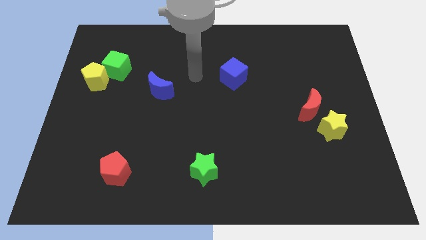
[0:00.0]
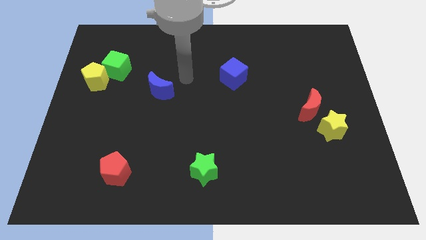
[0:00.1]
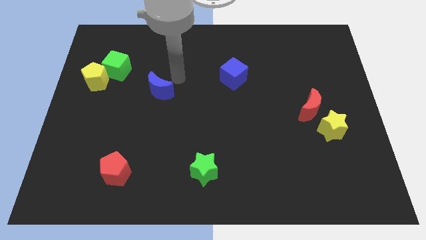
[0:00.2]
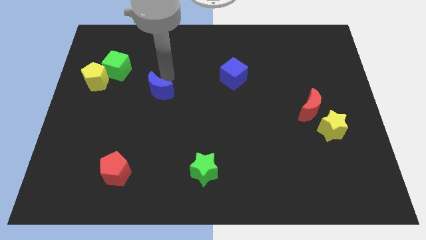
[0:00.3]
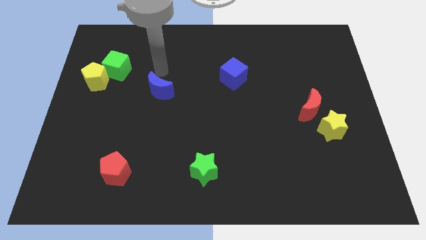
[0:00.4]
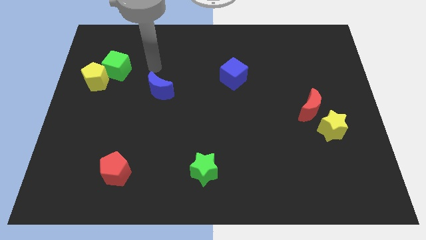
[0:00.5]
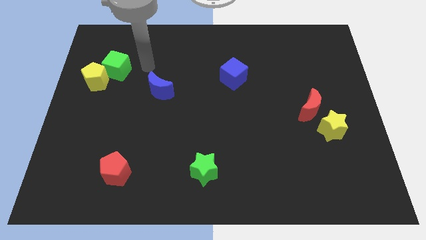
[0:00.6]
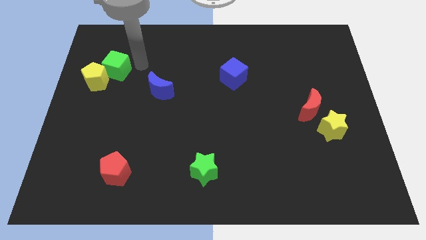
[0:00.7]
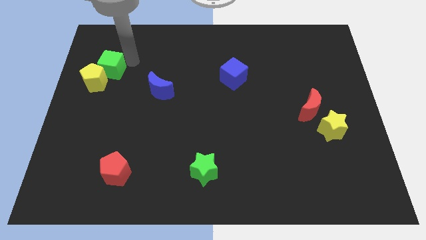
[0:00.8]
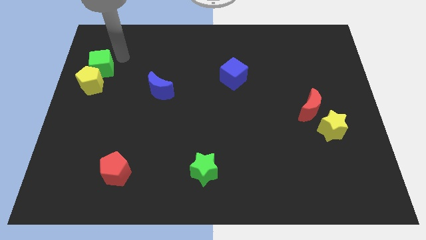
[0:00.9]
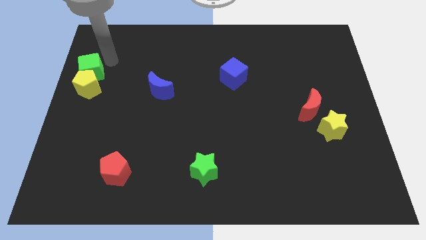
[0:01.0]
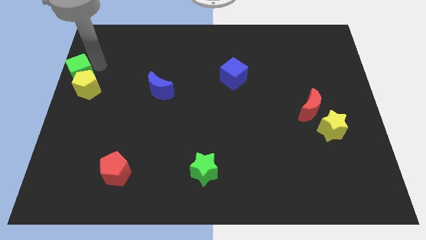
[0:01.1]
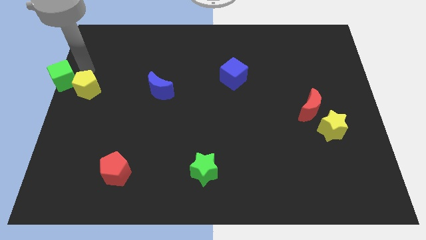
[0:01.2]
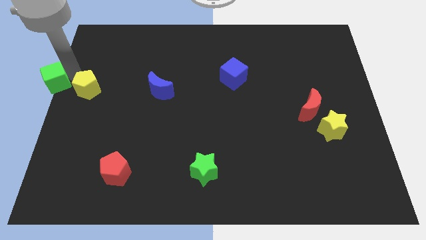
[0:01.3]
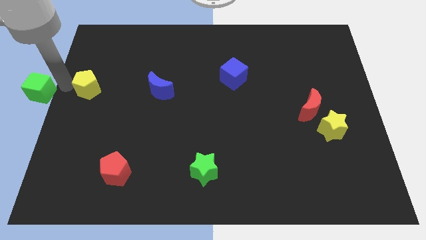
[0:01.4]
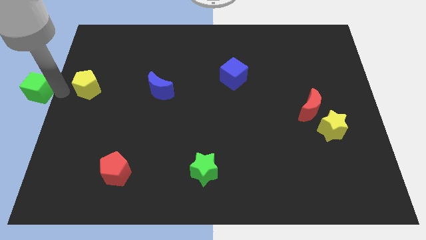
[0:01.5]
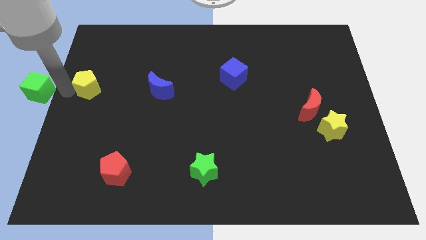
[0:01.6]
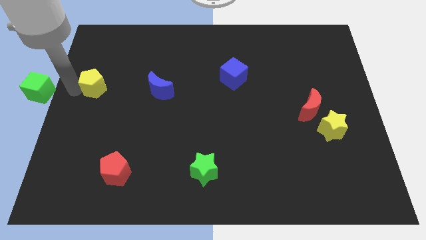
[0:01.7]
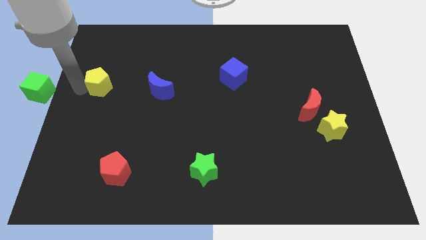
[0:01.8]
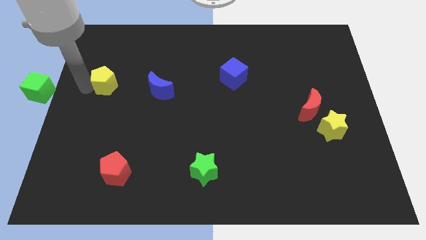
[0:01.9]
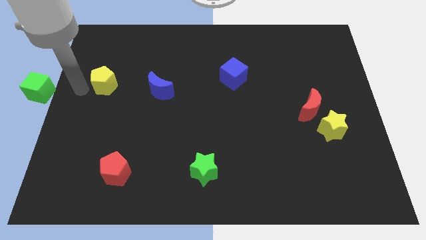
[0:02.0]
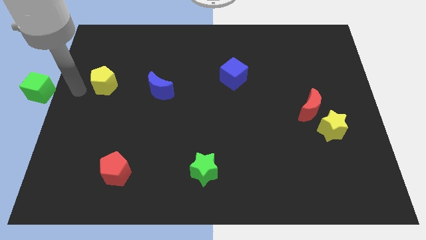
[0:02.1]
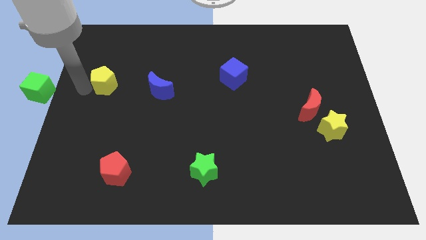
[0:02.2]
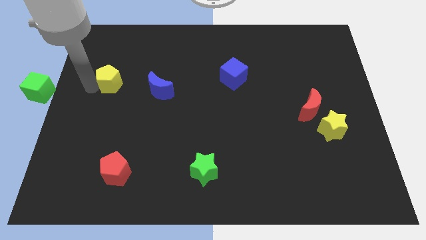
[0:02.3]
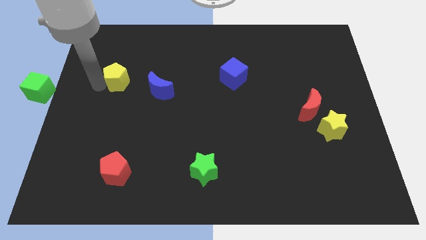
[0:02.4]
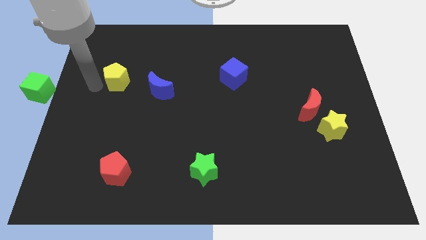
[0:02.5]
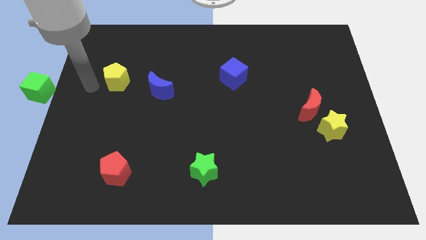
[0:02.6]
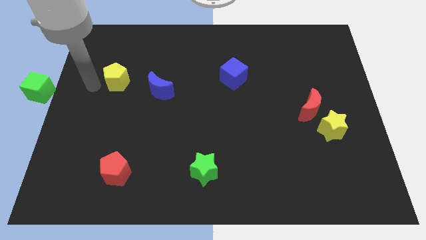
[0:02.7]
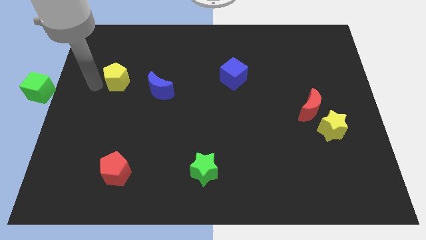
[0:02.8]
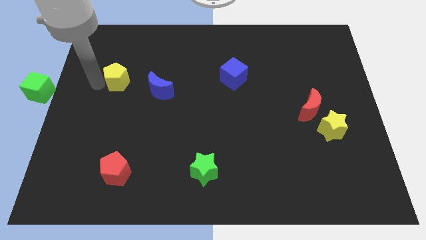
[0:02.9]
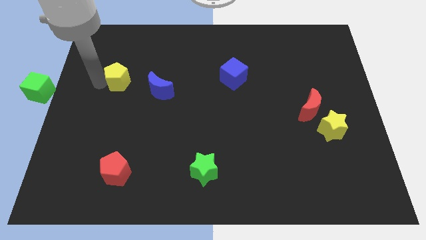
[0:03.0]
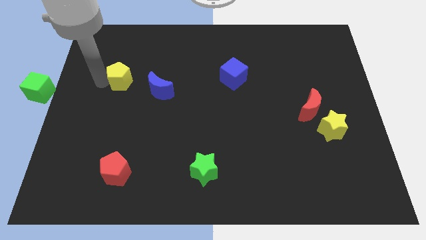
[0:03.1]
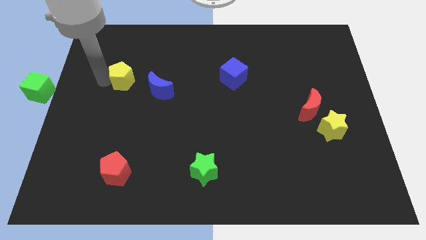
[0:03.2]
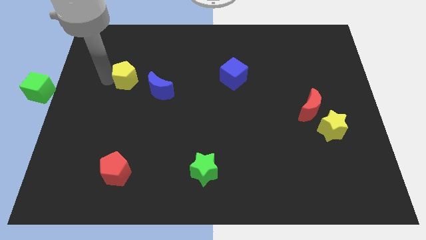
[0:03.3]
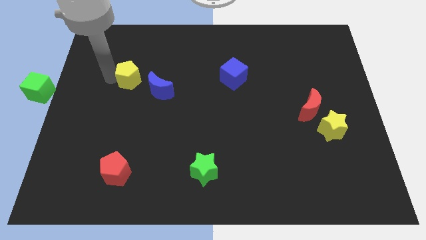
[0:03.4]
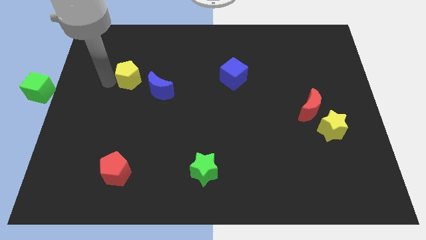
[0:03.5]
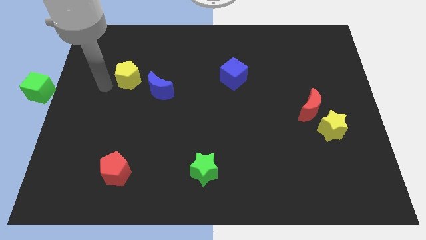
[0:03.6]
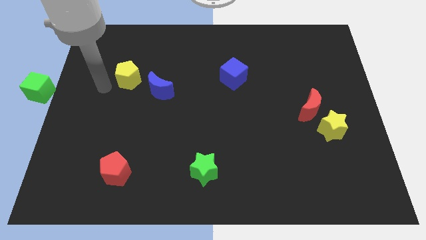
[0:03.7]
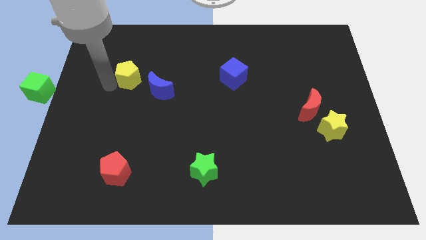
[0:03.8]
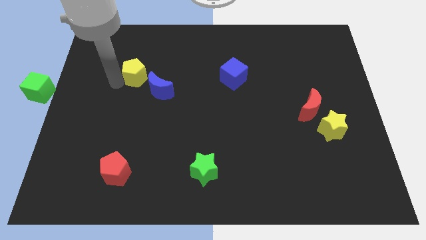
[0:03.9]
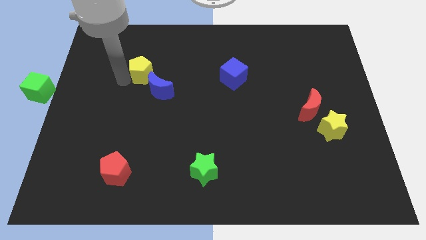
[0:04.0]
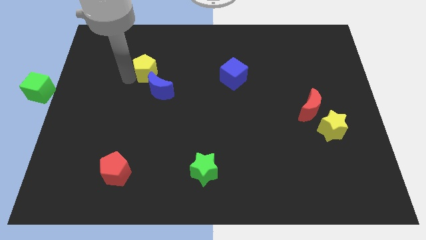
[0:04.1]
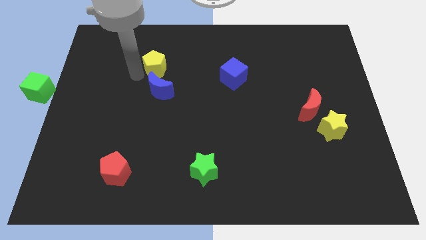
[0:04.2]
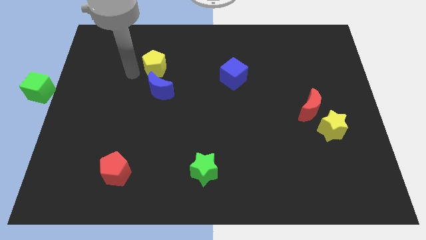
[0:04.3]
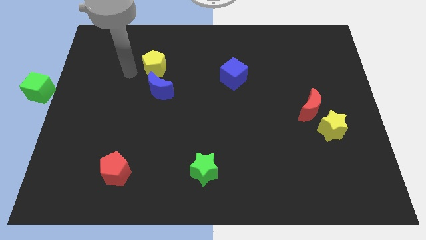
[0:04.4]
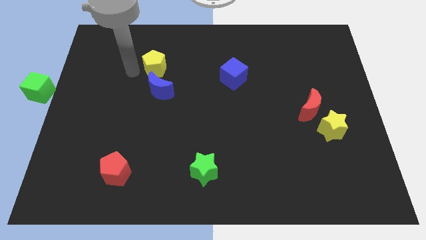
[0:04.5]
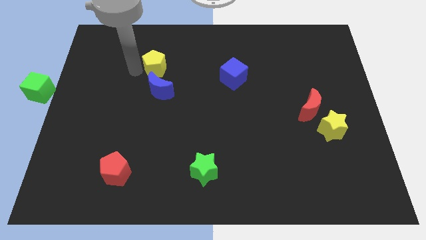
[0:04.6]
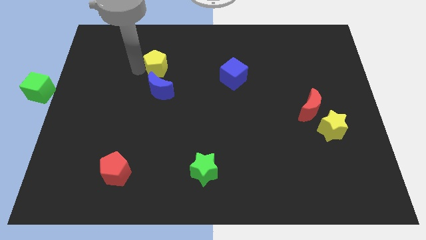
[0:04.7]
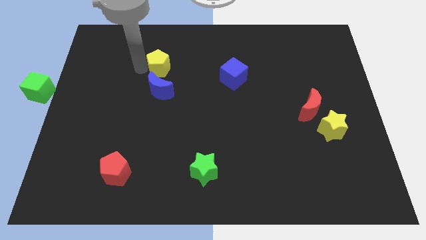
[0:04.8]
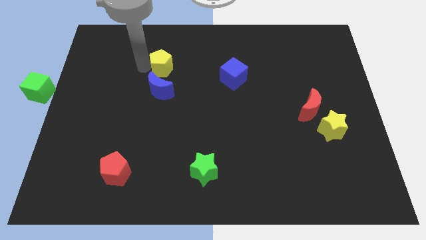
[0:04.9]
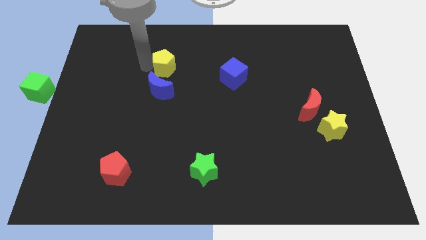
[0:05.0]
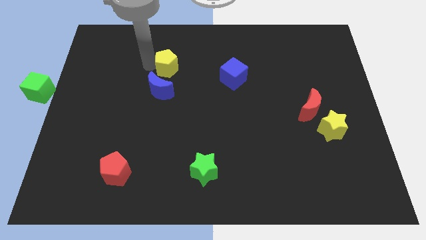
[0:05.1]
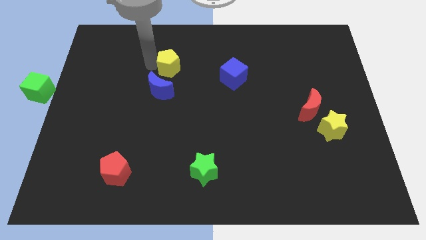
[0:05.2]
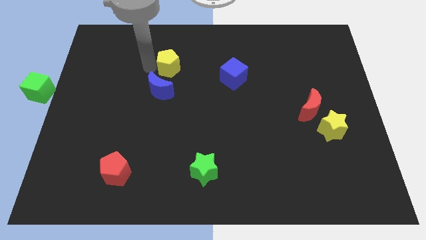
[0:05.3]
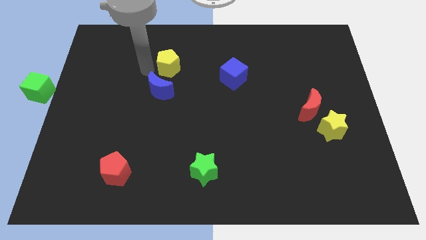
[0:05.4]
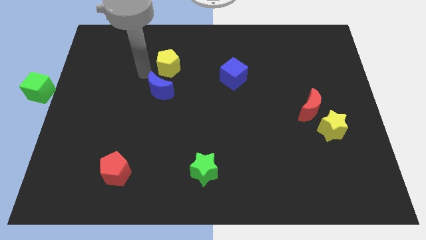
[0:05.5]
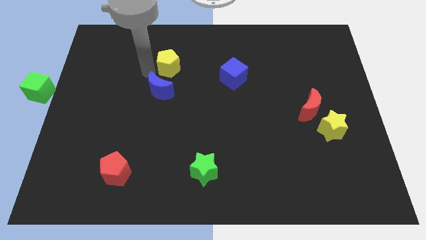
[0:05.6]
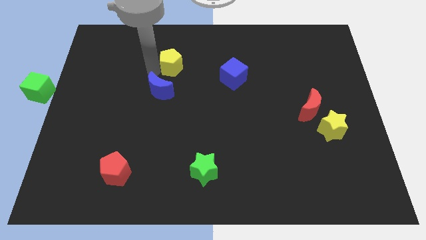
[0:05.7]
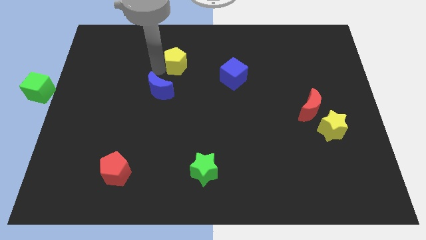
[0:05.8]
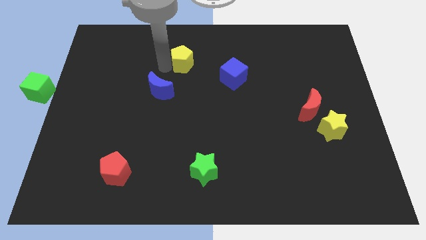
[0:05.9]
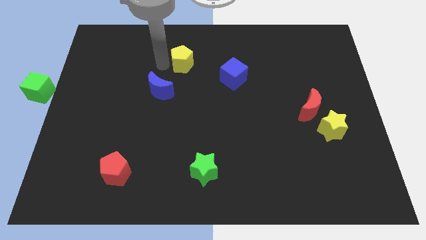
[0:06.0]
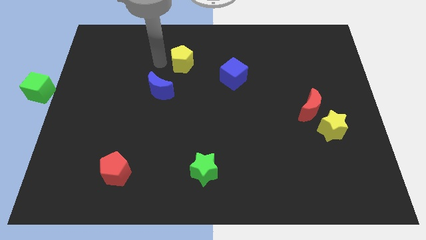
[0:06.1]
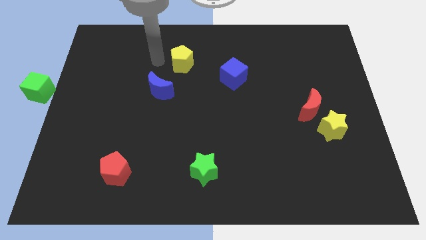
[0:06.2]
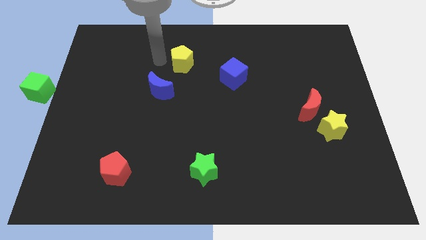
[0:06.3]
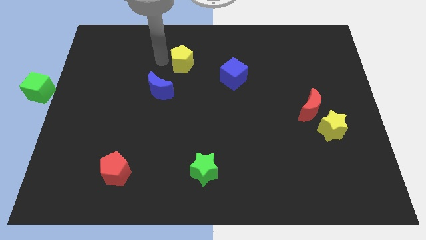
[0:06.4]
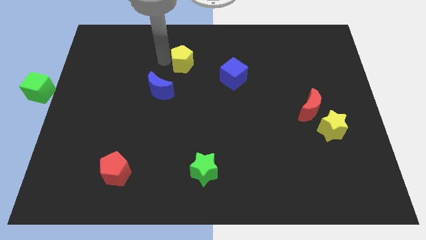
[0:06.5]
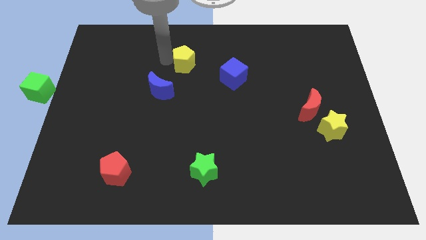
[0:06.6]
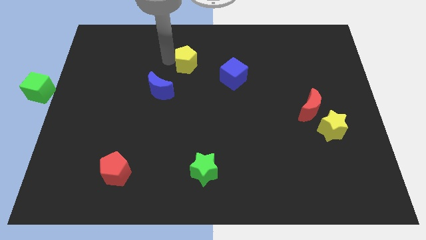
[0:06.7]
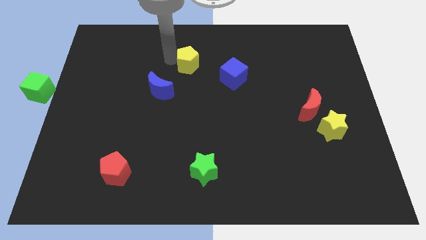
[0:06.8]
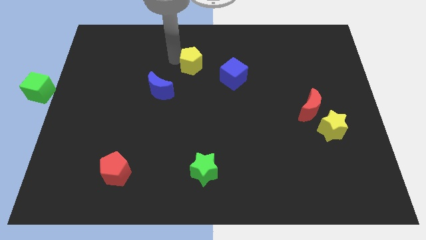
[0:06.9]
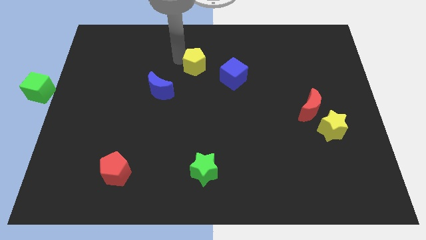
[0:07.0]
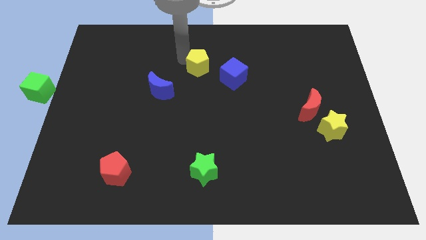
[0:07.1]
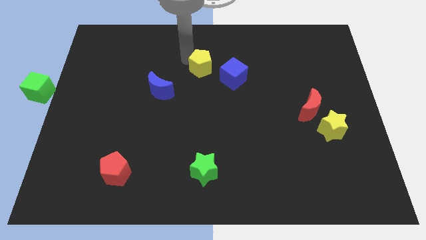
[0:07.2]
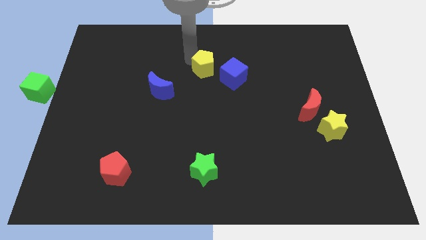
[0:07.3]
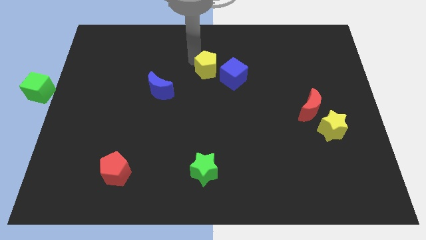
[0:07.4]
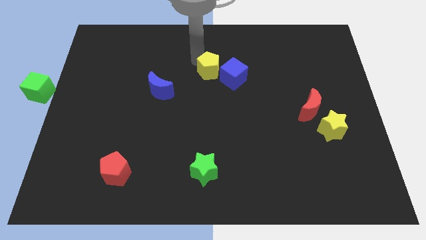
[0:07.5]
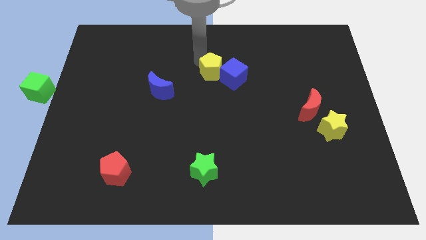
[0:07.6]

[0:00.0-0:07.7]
move the yellow pentagon to the blue cube

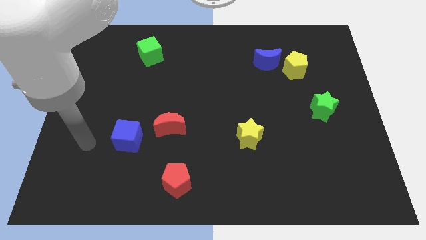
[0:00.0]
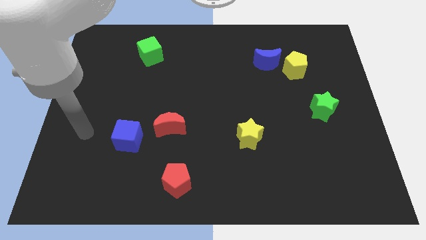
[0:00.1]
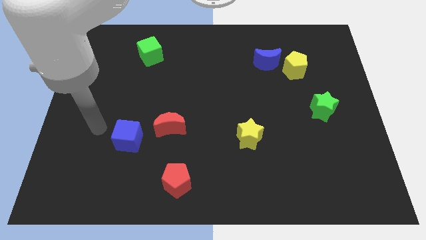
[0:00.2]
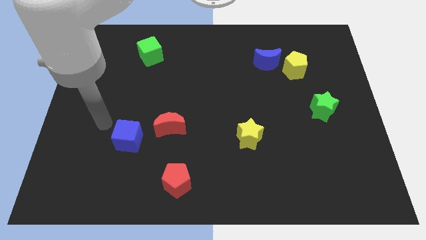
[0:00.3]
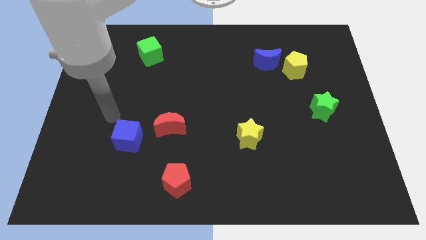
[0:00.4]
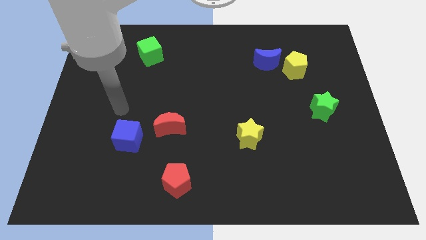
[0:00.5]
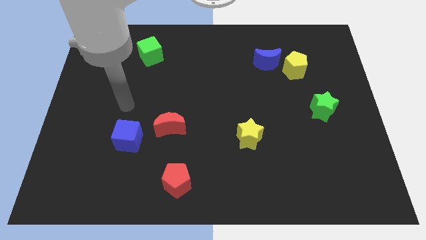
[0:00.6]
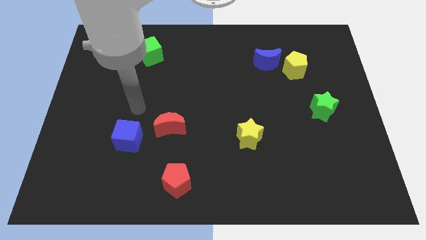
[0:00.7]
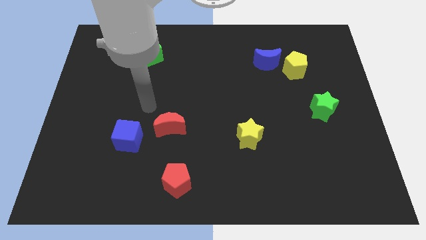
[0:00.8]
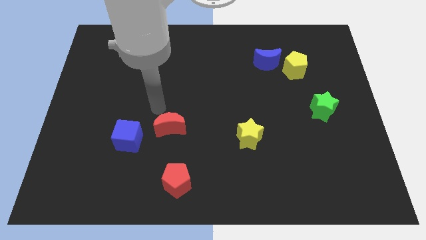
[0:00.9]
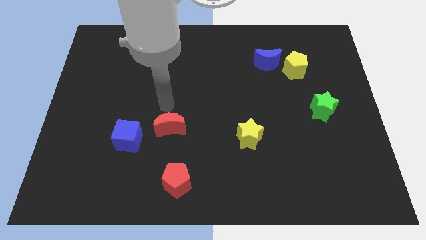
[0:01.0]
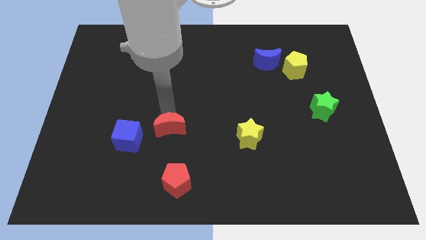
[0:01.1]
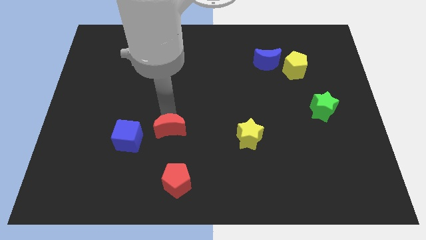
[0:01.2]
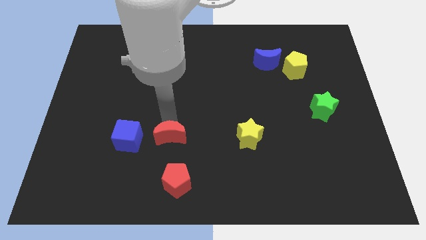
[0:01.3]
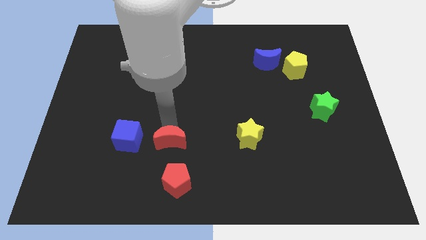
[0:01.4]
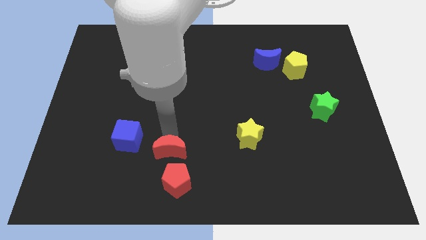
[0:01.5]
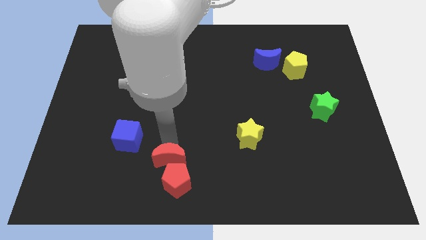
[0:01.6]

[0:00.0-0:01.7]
slide the red moon towards the red pentagon
